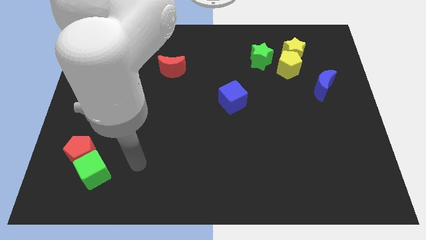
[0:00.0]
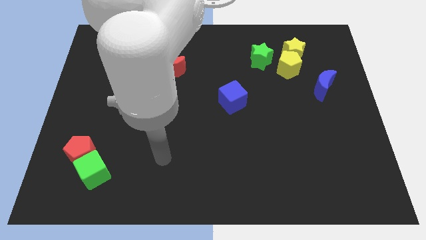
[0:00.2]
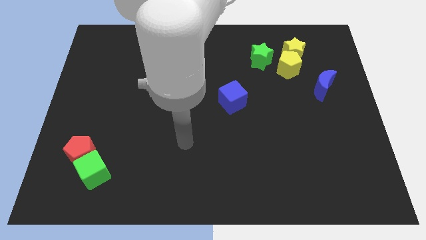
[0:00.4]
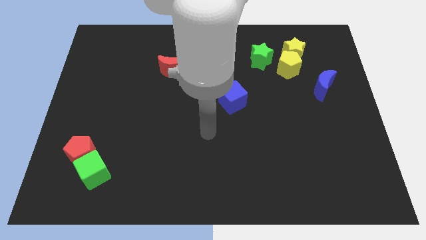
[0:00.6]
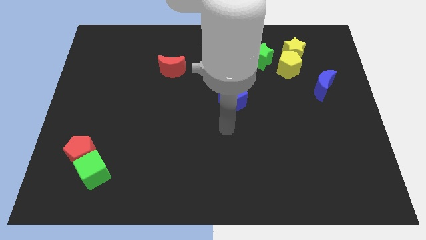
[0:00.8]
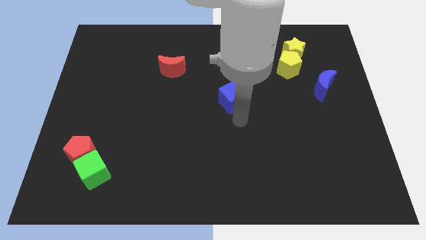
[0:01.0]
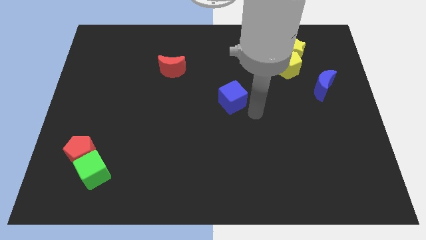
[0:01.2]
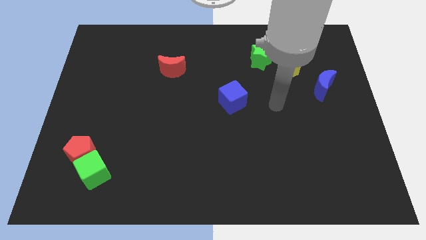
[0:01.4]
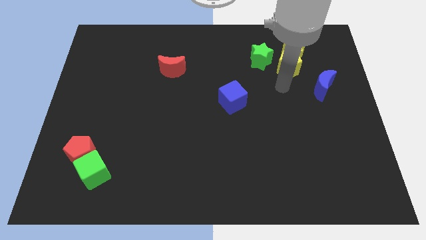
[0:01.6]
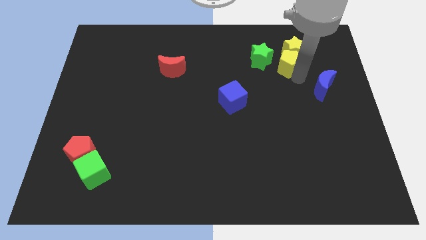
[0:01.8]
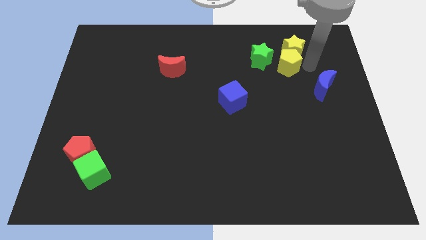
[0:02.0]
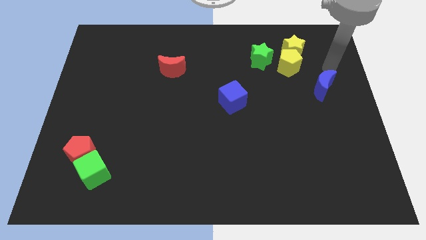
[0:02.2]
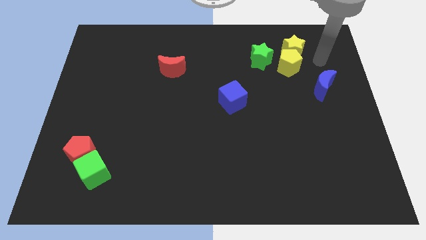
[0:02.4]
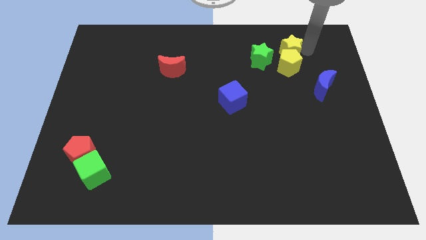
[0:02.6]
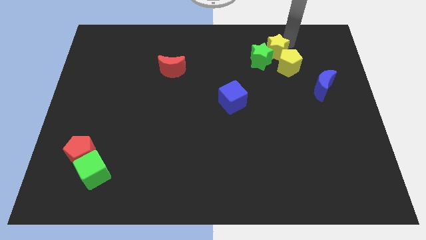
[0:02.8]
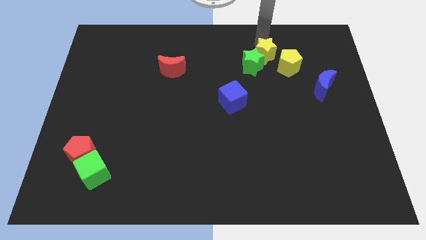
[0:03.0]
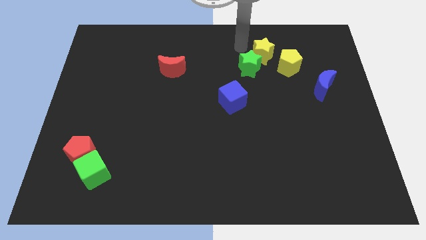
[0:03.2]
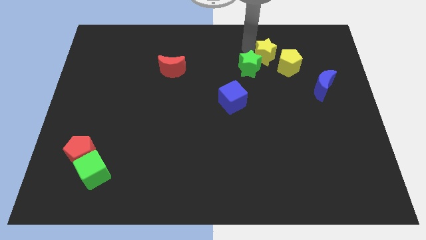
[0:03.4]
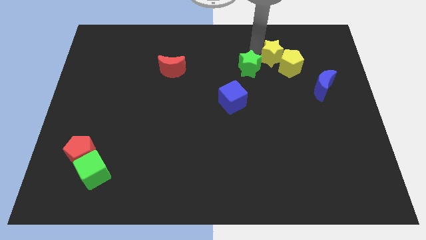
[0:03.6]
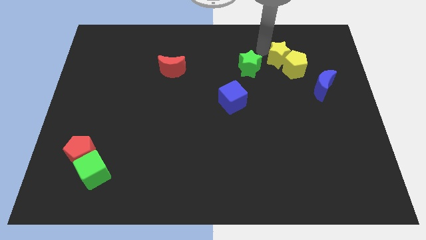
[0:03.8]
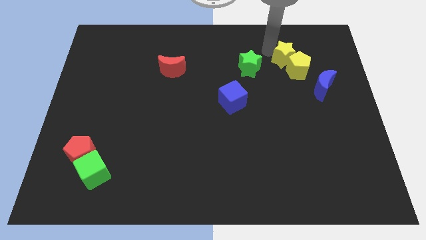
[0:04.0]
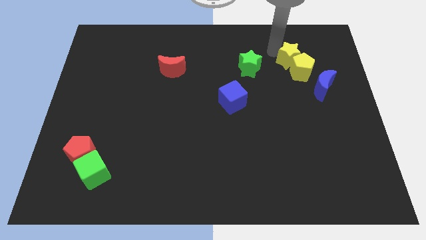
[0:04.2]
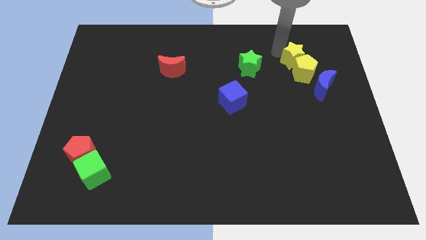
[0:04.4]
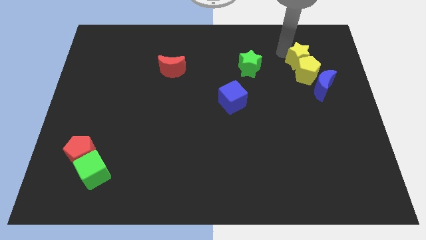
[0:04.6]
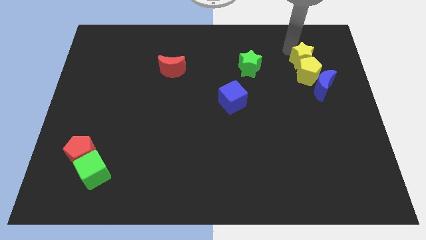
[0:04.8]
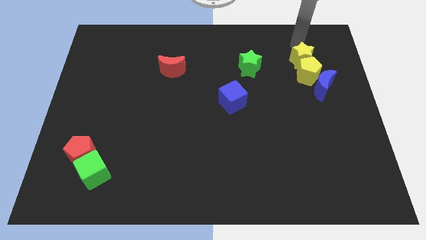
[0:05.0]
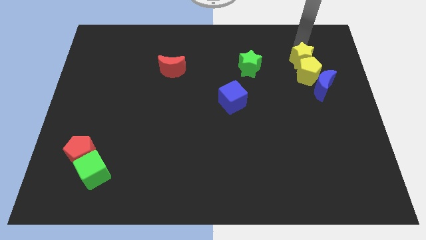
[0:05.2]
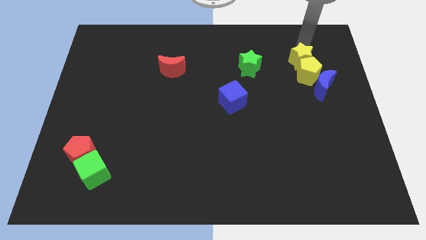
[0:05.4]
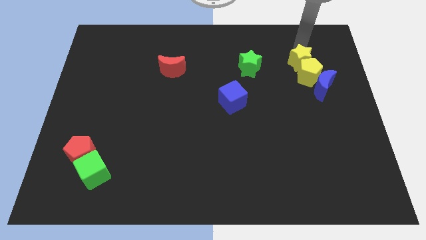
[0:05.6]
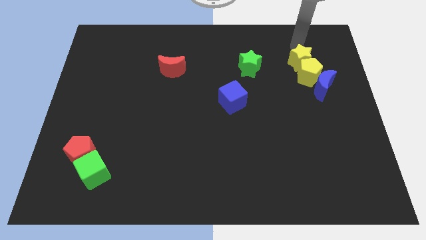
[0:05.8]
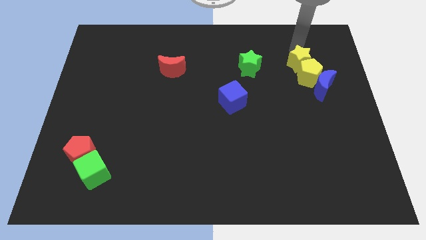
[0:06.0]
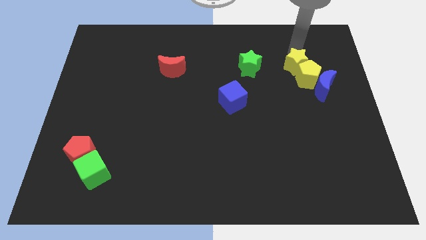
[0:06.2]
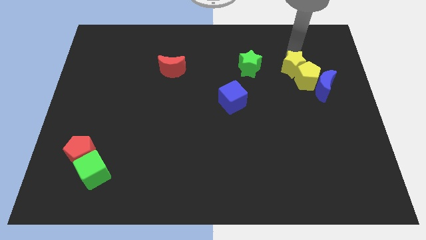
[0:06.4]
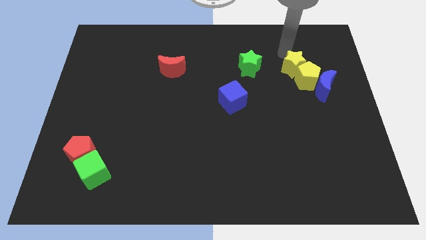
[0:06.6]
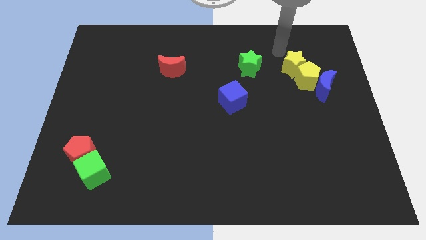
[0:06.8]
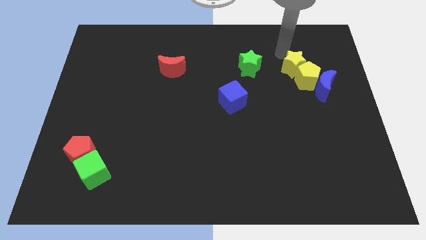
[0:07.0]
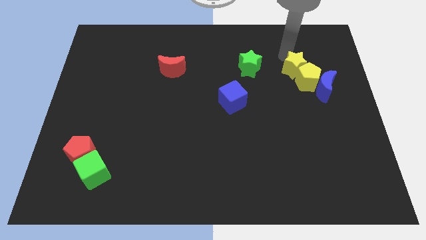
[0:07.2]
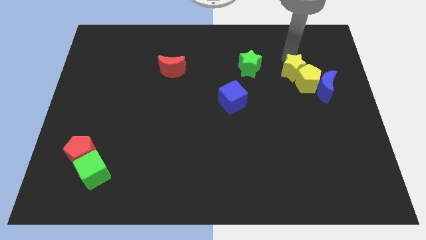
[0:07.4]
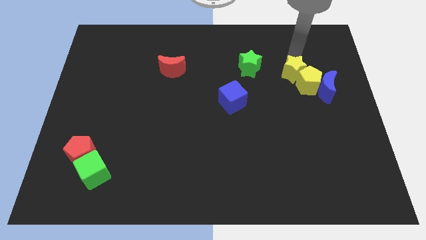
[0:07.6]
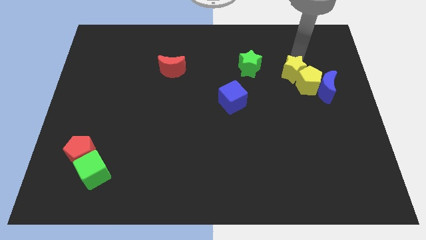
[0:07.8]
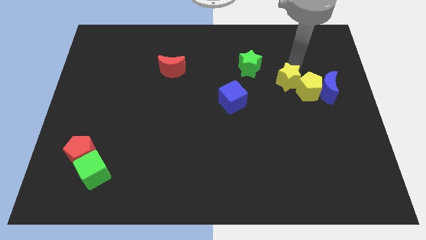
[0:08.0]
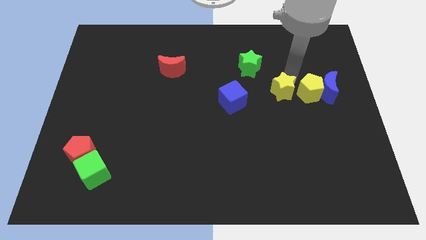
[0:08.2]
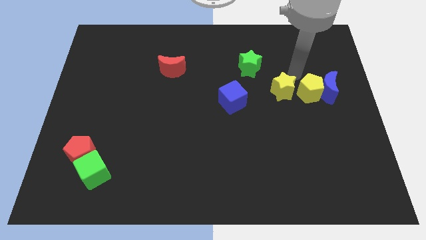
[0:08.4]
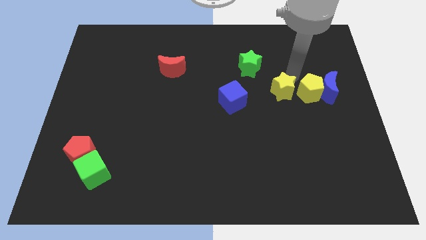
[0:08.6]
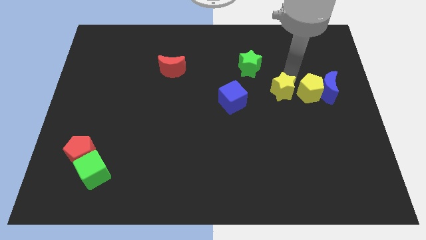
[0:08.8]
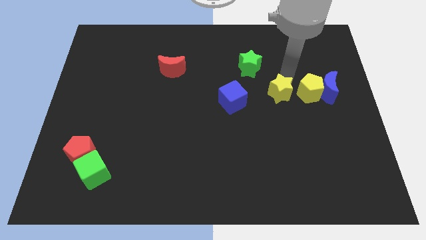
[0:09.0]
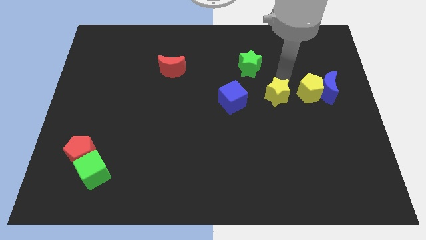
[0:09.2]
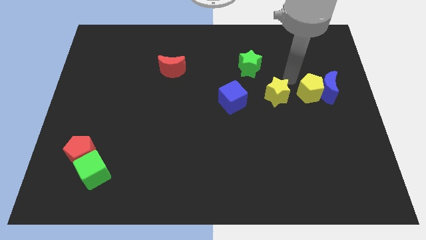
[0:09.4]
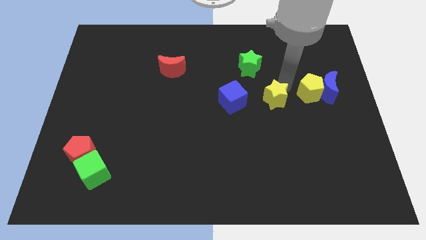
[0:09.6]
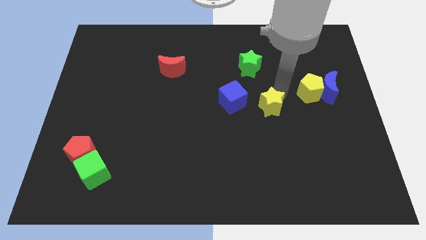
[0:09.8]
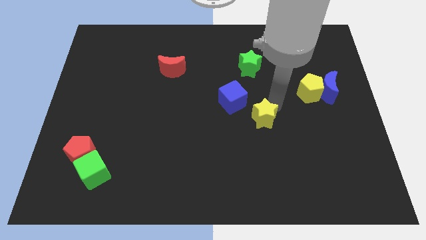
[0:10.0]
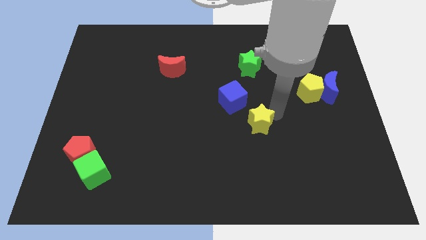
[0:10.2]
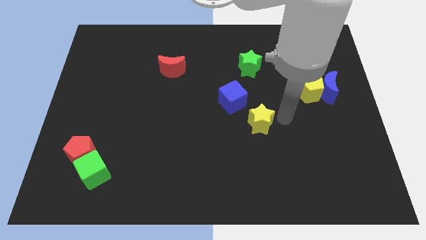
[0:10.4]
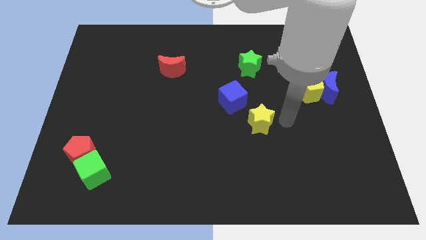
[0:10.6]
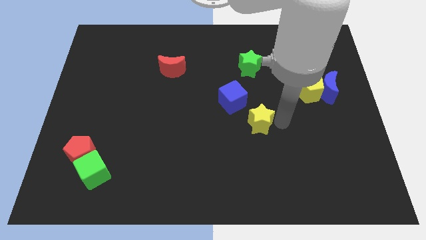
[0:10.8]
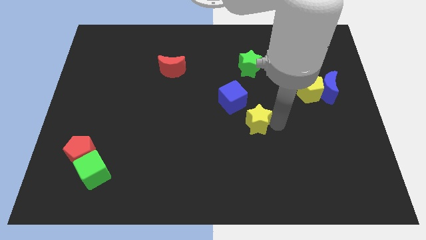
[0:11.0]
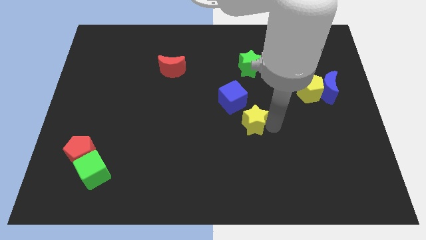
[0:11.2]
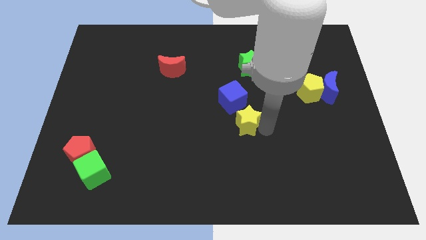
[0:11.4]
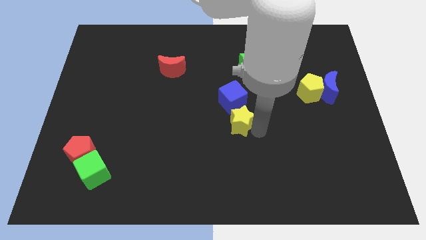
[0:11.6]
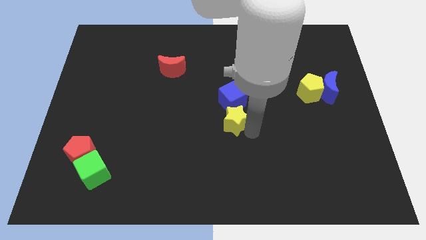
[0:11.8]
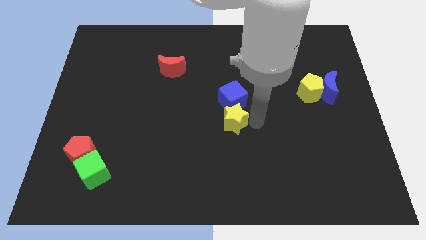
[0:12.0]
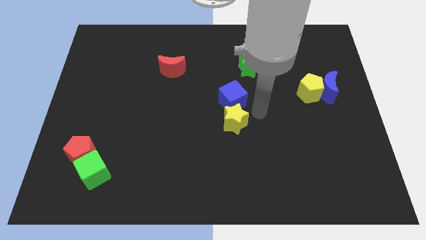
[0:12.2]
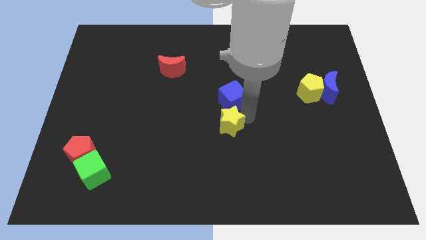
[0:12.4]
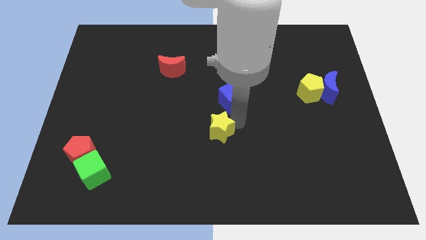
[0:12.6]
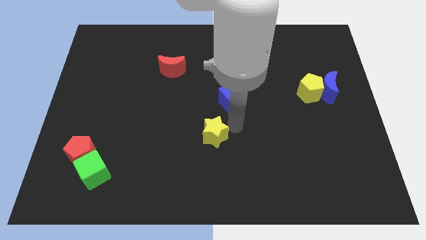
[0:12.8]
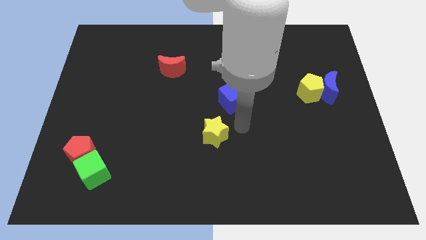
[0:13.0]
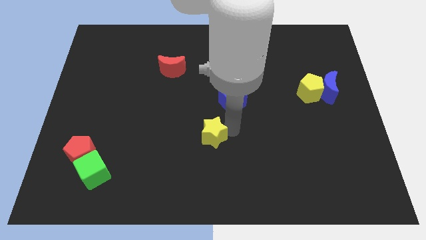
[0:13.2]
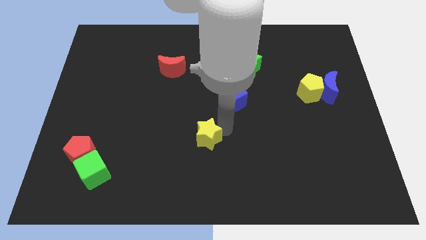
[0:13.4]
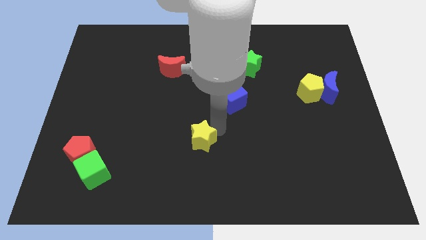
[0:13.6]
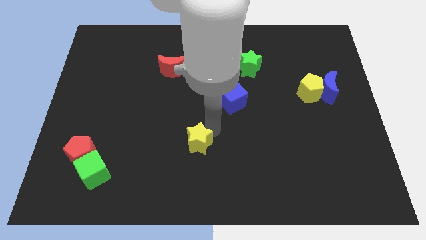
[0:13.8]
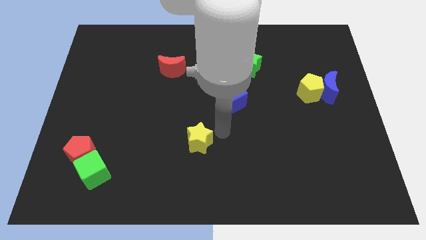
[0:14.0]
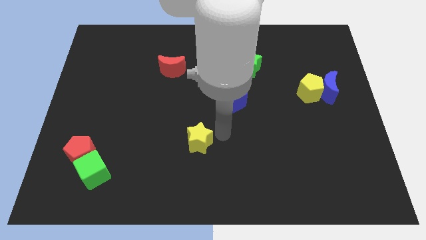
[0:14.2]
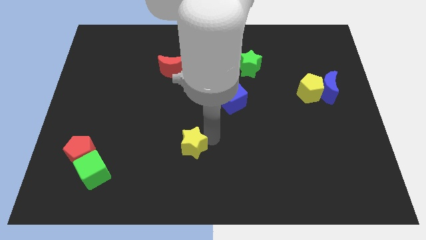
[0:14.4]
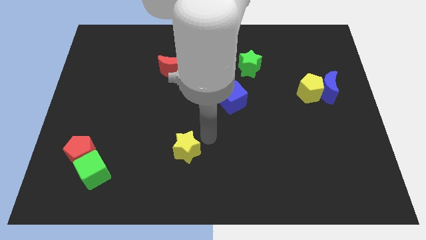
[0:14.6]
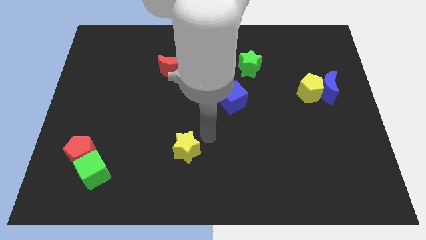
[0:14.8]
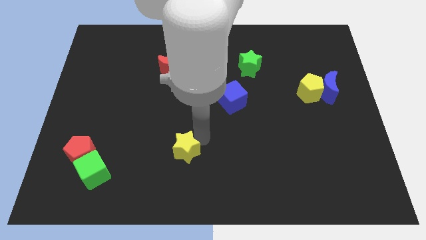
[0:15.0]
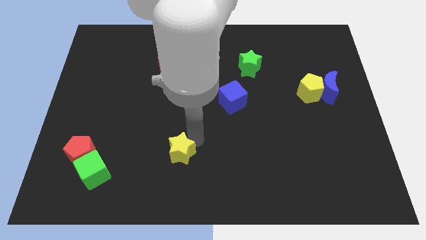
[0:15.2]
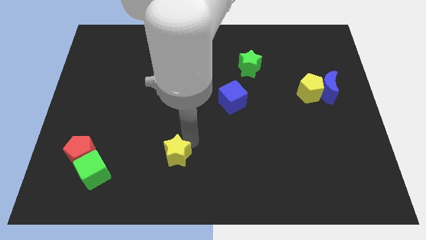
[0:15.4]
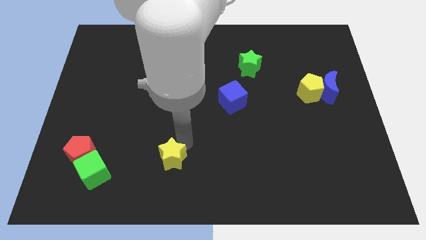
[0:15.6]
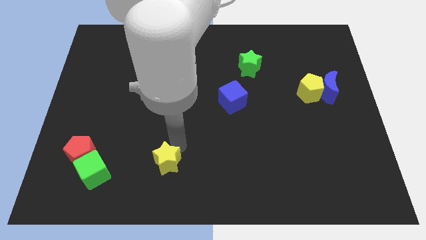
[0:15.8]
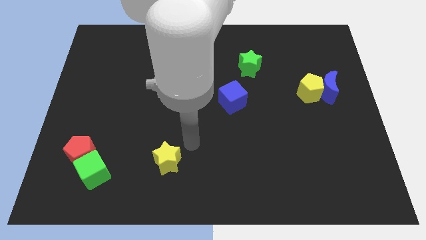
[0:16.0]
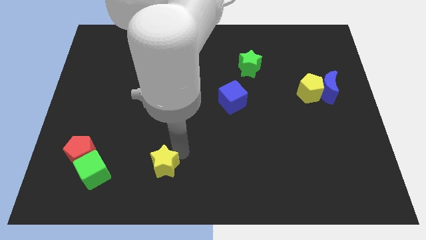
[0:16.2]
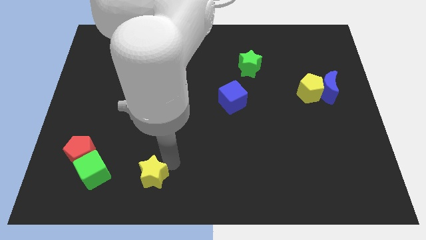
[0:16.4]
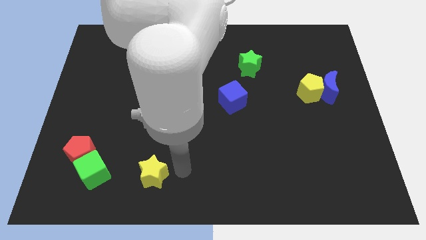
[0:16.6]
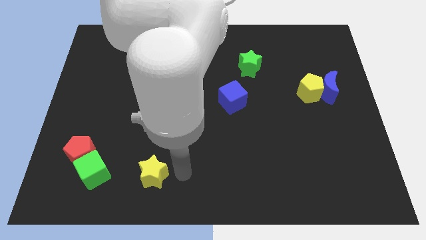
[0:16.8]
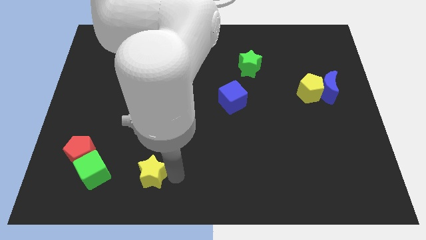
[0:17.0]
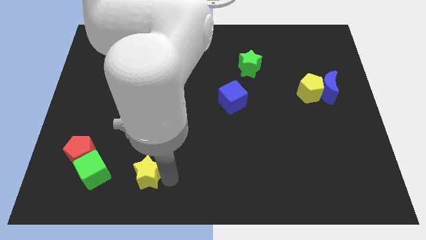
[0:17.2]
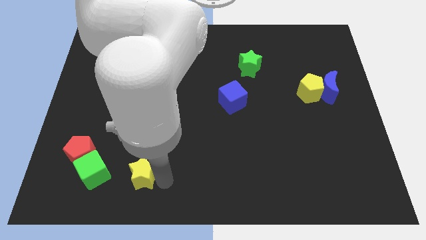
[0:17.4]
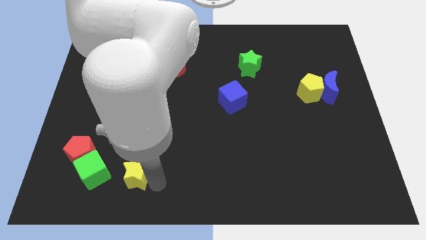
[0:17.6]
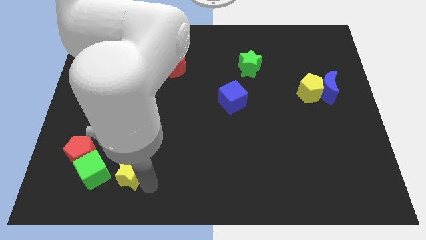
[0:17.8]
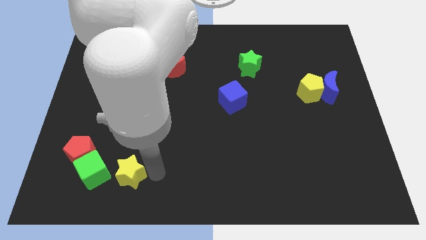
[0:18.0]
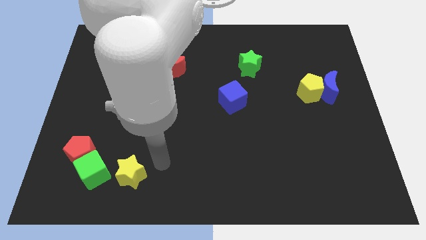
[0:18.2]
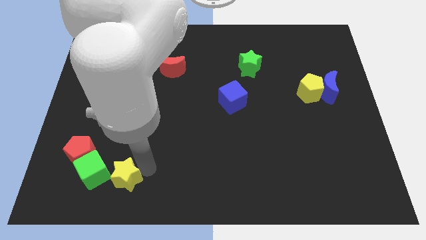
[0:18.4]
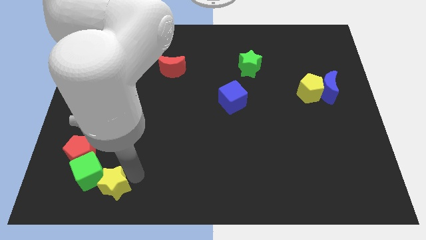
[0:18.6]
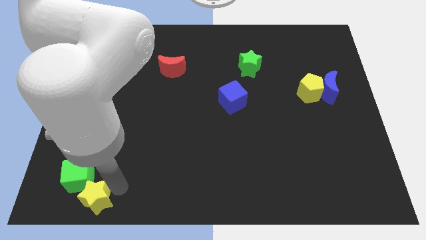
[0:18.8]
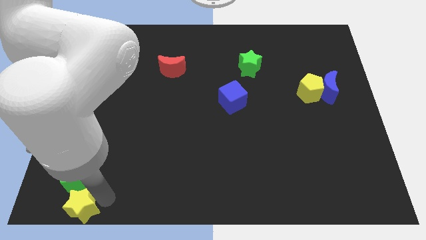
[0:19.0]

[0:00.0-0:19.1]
push the yellow star to the bottom left of the board
